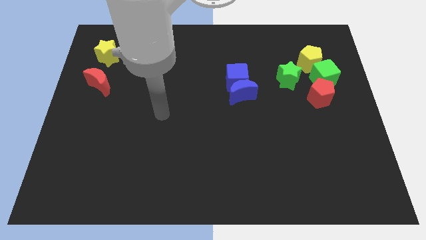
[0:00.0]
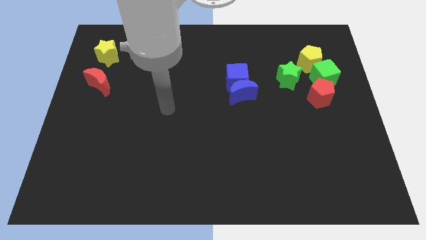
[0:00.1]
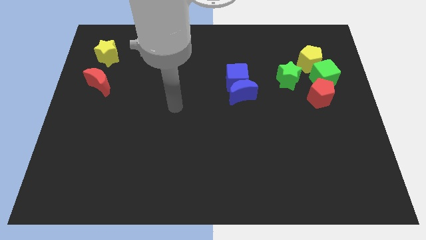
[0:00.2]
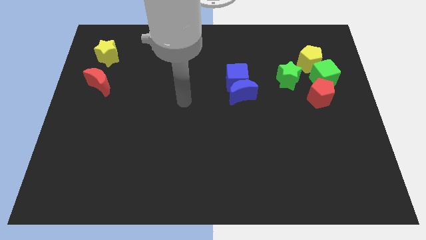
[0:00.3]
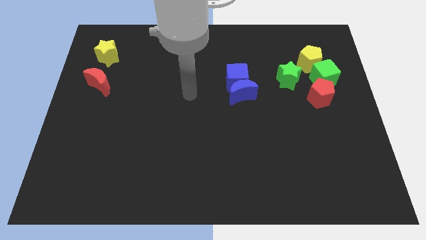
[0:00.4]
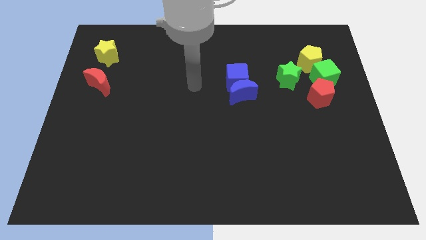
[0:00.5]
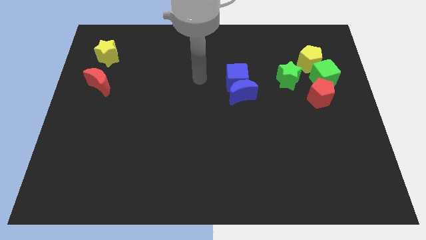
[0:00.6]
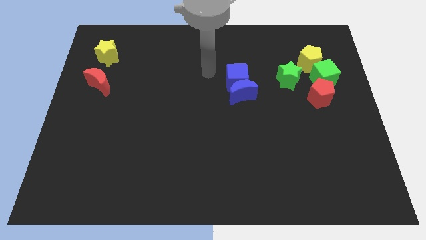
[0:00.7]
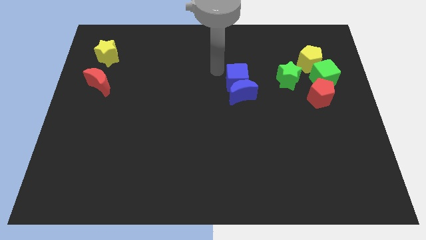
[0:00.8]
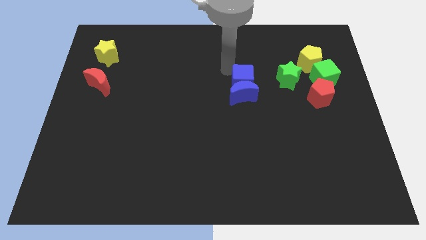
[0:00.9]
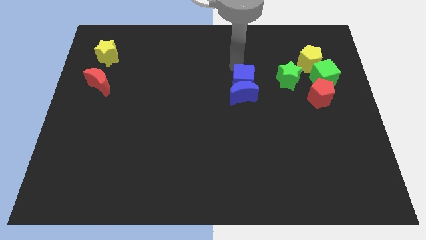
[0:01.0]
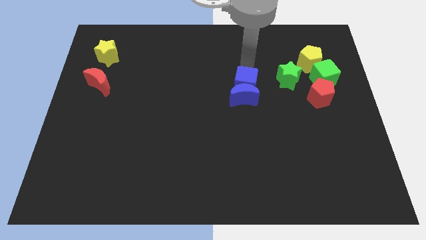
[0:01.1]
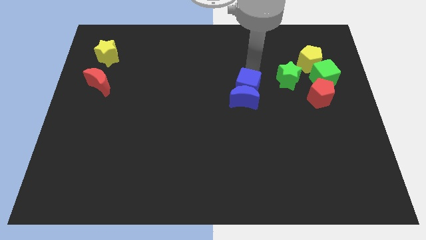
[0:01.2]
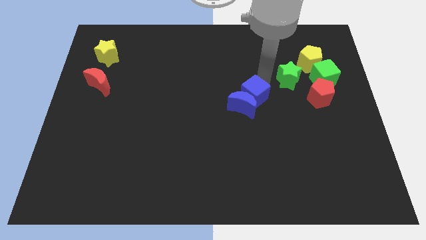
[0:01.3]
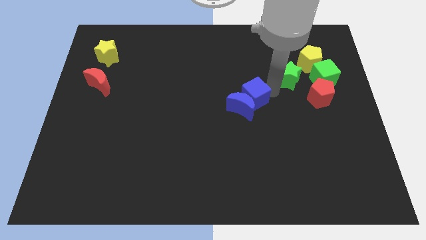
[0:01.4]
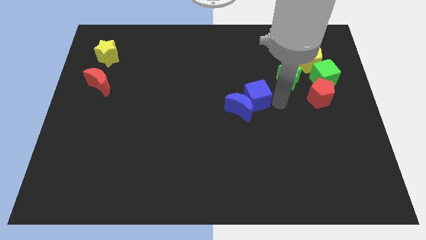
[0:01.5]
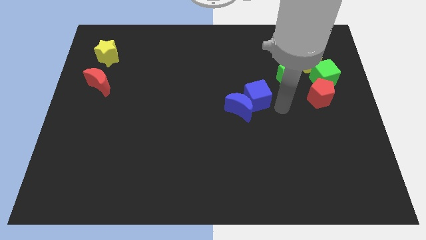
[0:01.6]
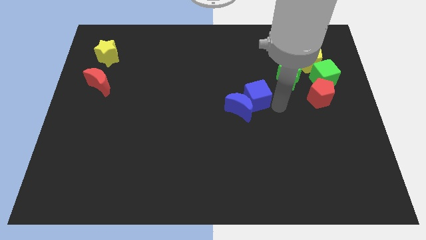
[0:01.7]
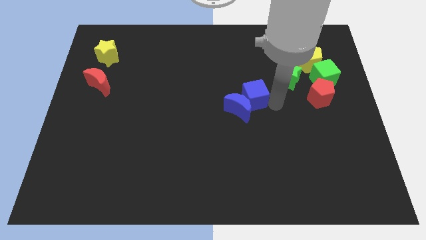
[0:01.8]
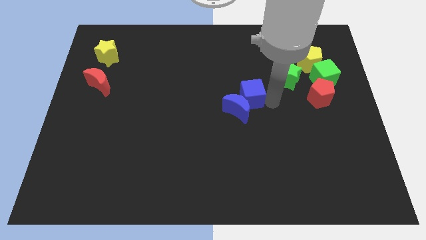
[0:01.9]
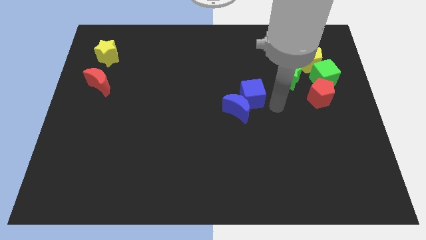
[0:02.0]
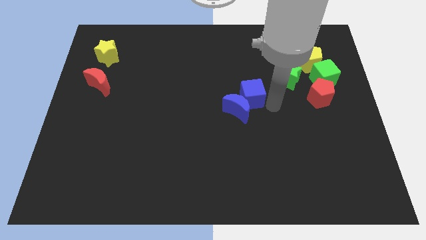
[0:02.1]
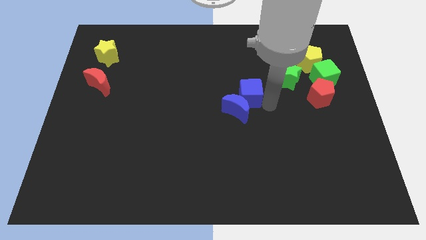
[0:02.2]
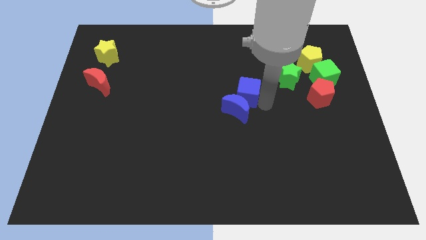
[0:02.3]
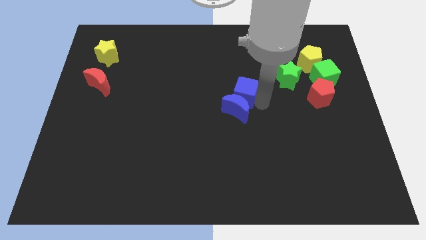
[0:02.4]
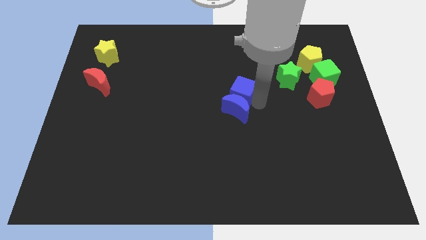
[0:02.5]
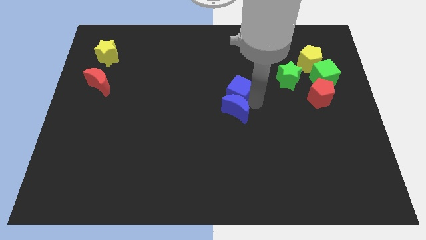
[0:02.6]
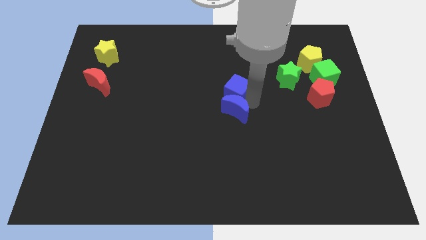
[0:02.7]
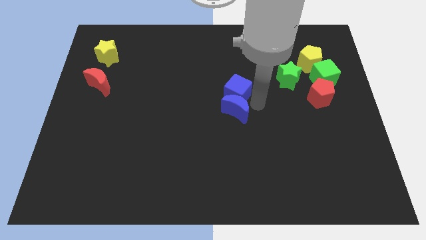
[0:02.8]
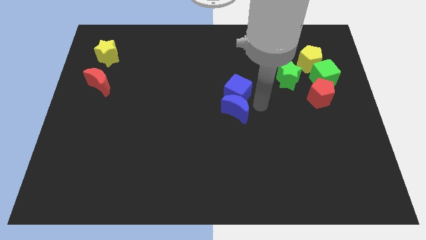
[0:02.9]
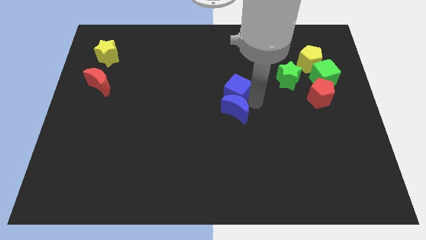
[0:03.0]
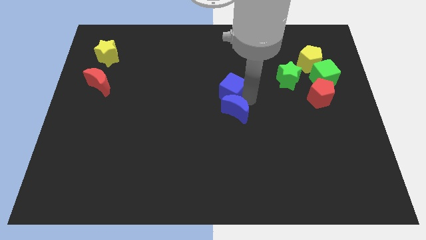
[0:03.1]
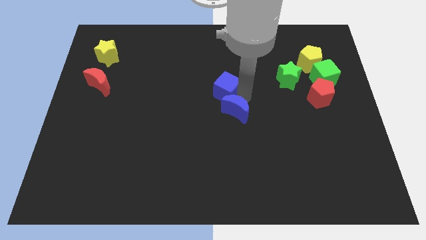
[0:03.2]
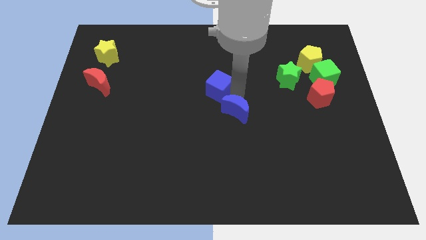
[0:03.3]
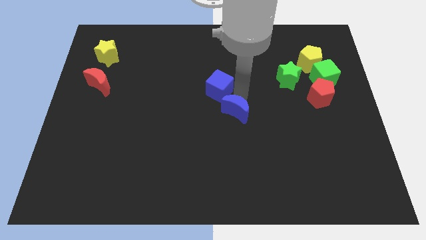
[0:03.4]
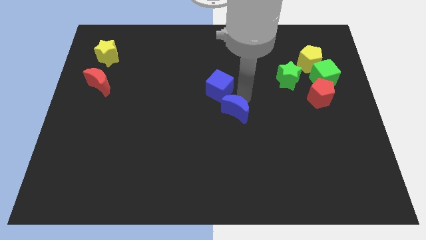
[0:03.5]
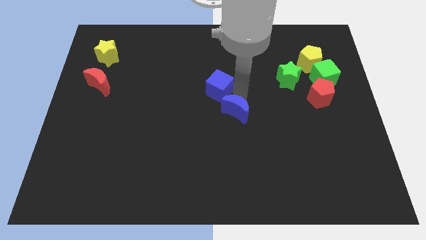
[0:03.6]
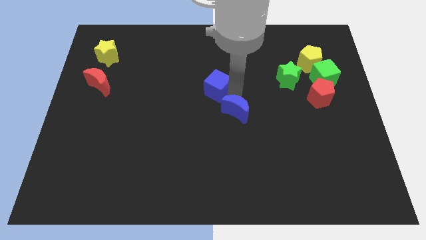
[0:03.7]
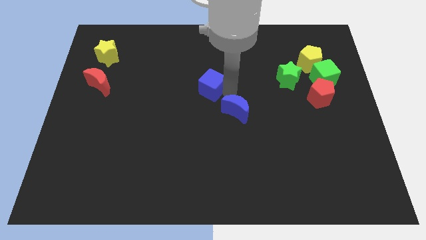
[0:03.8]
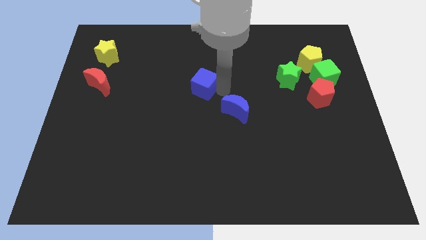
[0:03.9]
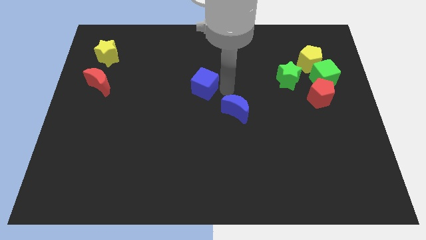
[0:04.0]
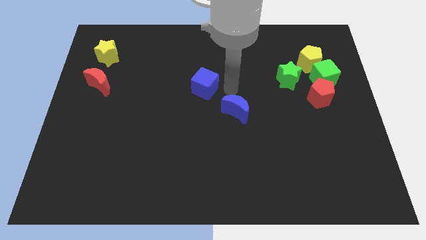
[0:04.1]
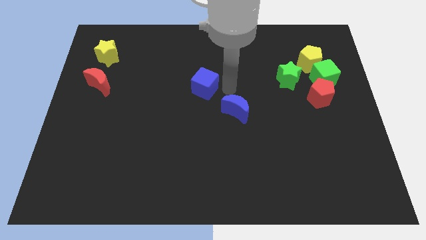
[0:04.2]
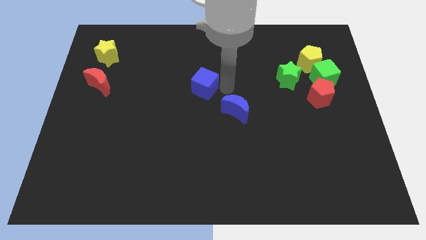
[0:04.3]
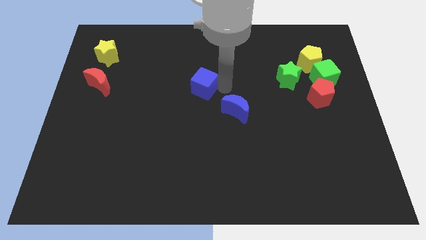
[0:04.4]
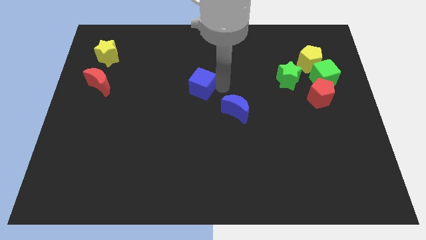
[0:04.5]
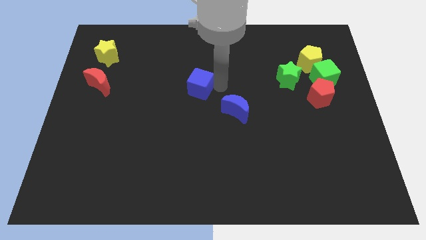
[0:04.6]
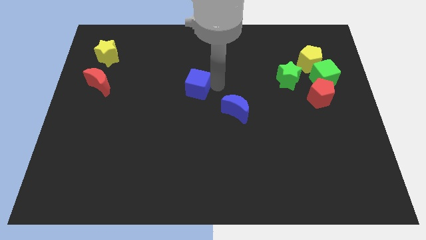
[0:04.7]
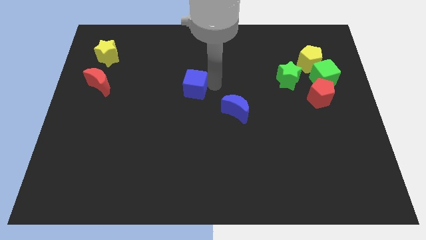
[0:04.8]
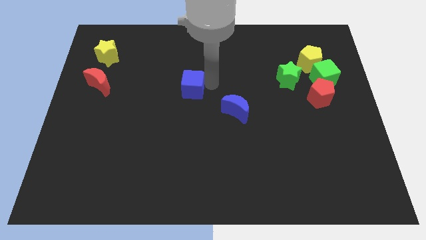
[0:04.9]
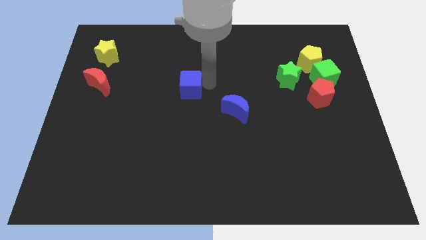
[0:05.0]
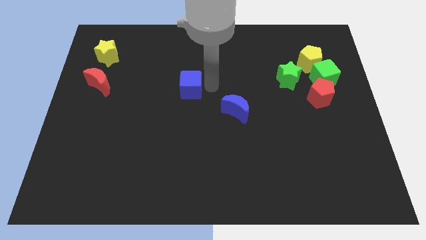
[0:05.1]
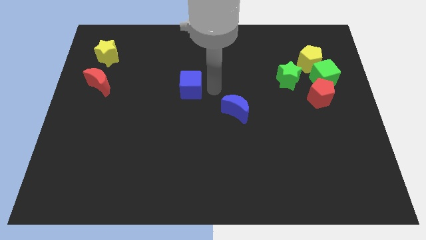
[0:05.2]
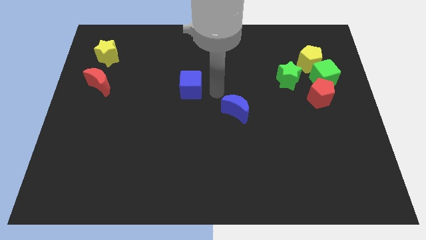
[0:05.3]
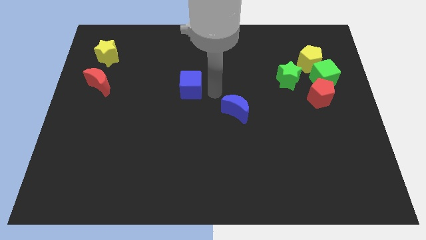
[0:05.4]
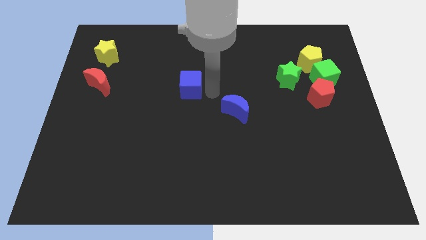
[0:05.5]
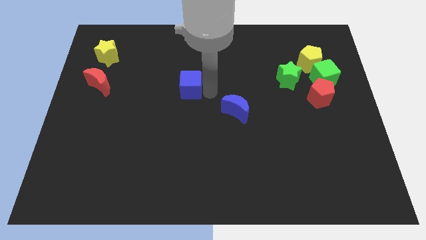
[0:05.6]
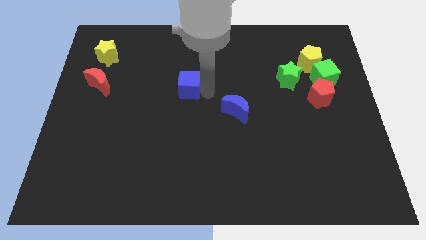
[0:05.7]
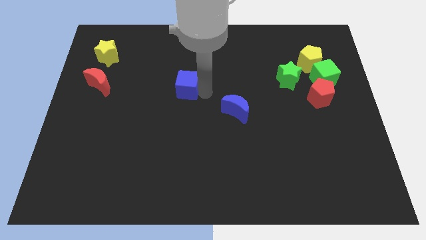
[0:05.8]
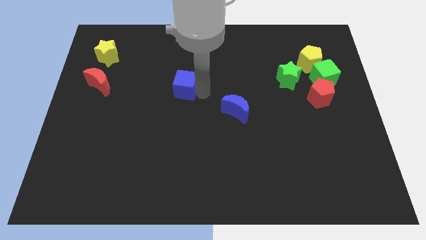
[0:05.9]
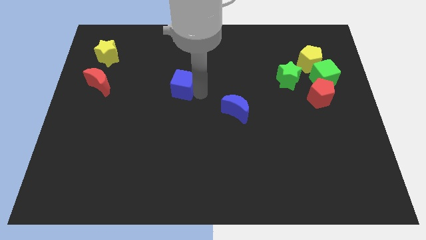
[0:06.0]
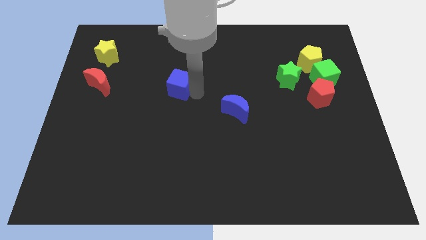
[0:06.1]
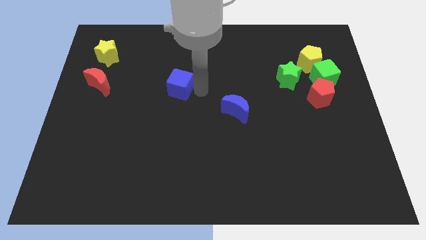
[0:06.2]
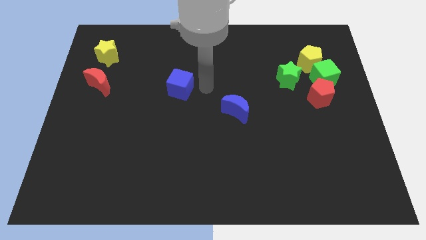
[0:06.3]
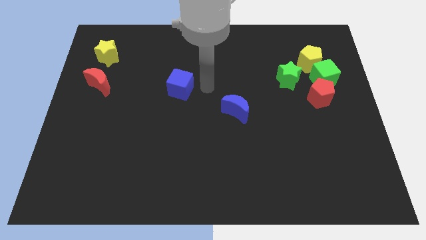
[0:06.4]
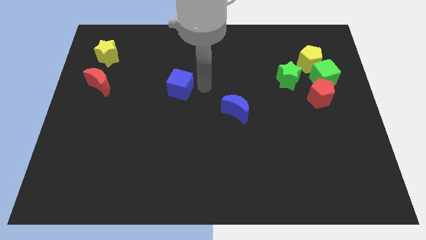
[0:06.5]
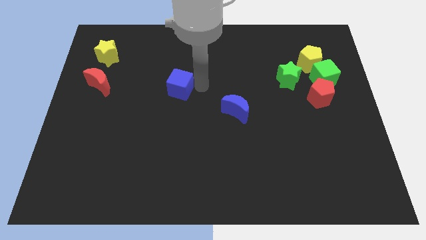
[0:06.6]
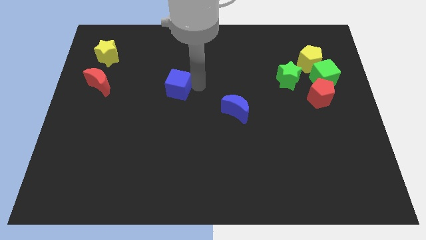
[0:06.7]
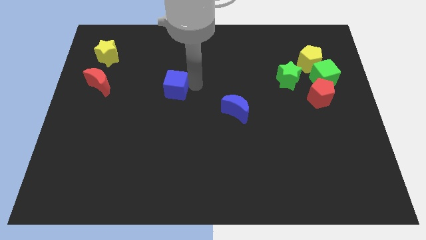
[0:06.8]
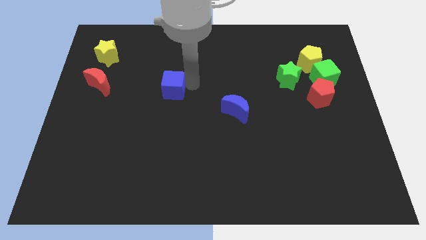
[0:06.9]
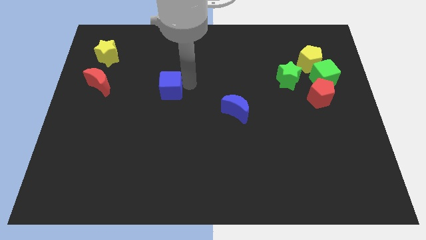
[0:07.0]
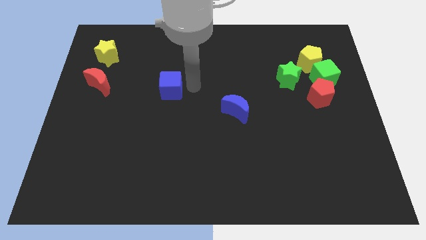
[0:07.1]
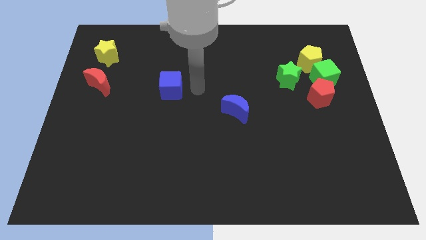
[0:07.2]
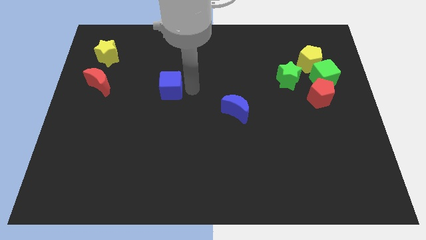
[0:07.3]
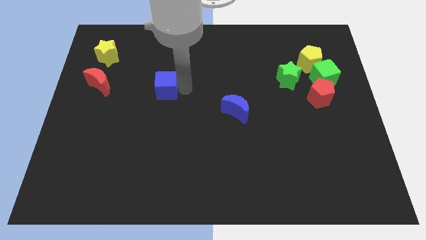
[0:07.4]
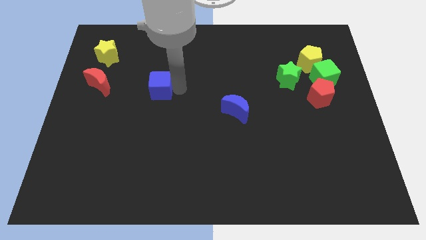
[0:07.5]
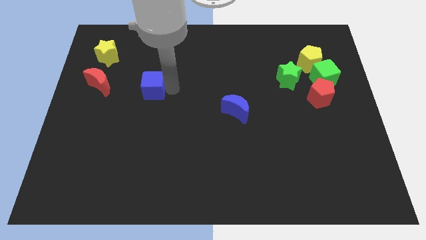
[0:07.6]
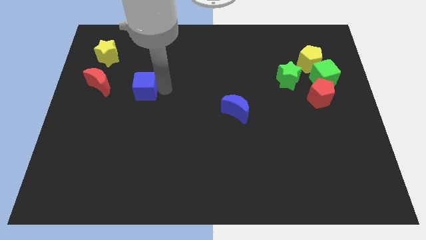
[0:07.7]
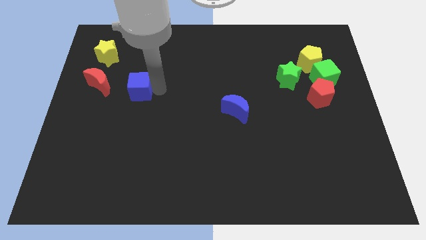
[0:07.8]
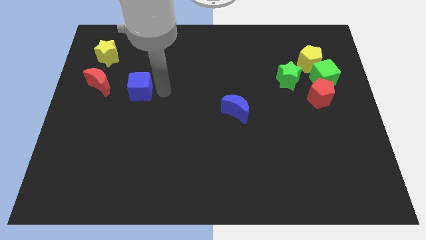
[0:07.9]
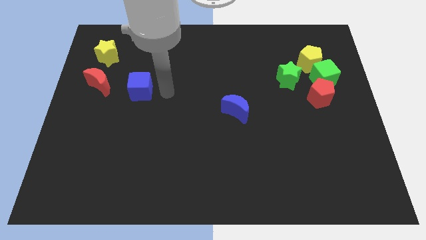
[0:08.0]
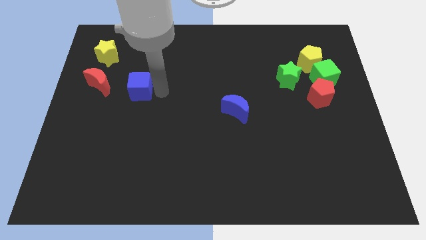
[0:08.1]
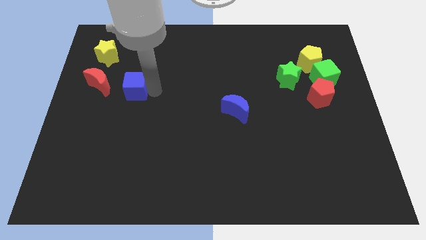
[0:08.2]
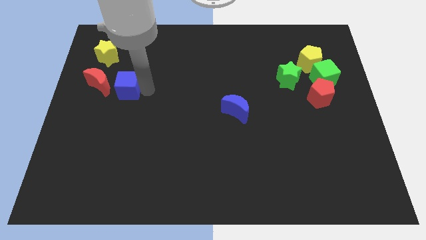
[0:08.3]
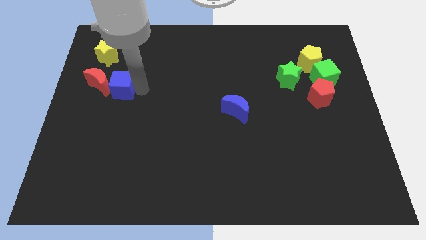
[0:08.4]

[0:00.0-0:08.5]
move the blue cube close to the red moon
